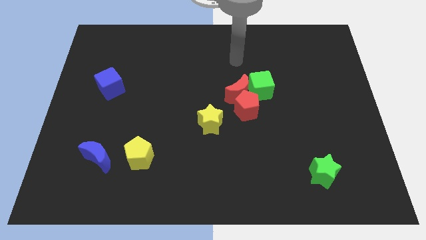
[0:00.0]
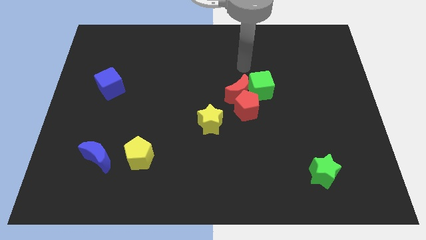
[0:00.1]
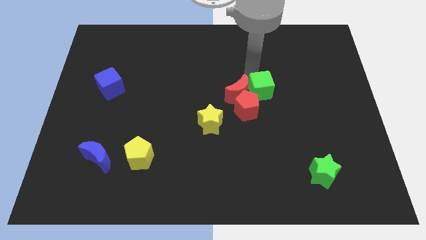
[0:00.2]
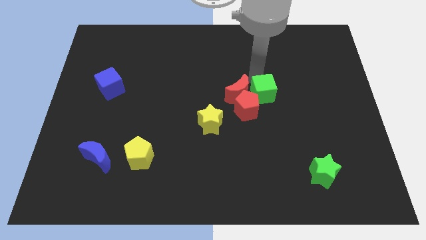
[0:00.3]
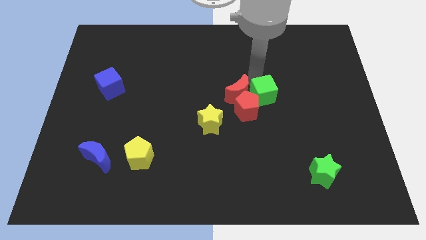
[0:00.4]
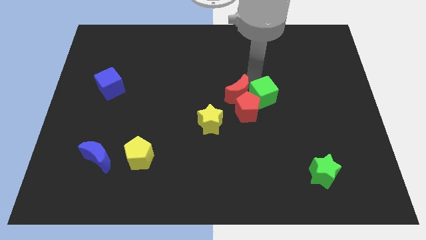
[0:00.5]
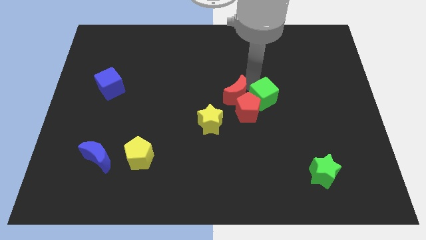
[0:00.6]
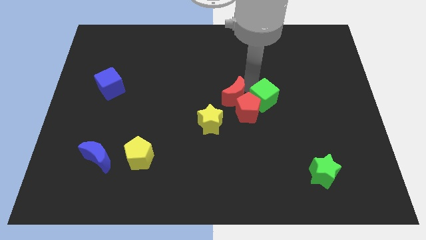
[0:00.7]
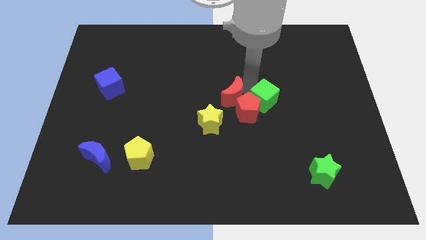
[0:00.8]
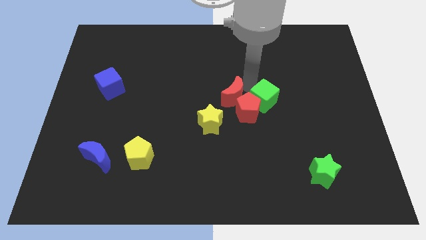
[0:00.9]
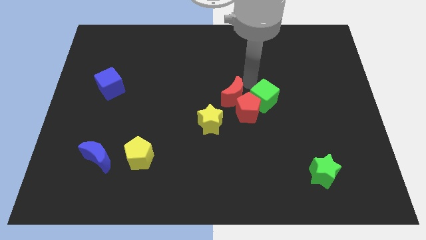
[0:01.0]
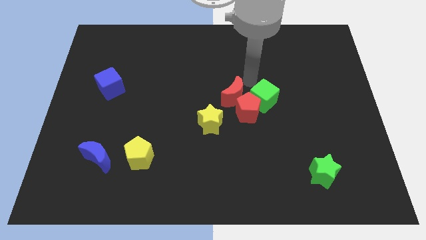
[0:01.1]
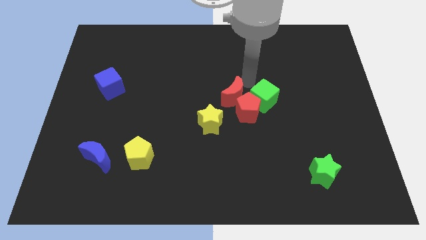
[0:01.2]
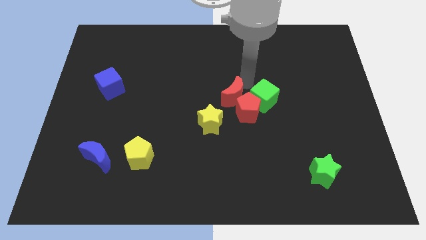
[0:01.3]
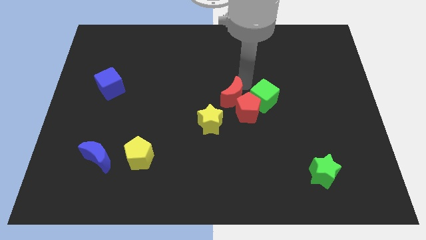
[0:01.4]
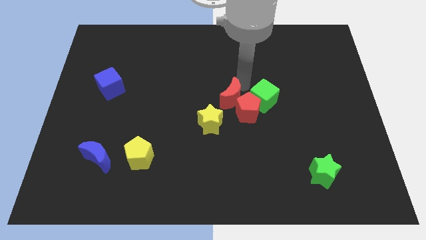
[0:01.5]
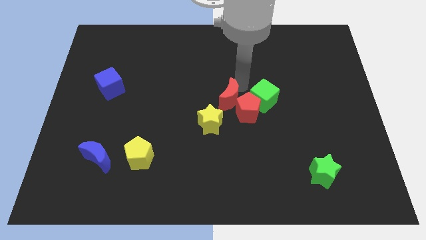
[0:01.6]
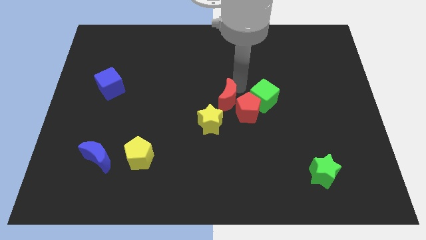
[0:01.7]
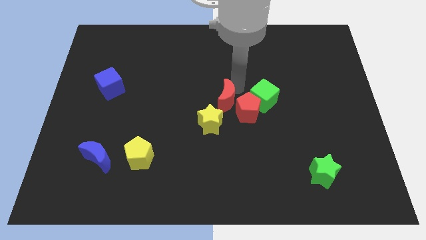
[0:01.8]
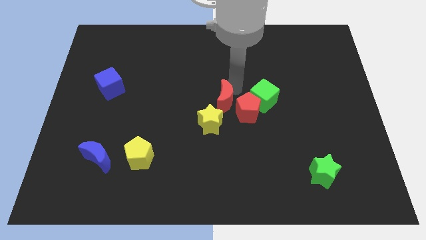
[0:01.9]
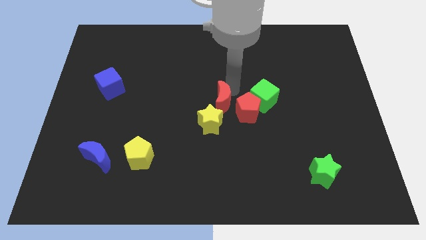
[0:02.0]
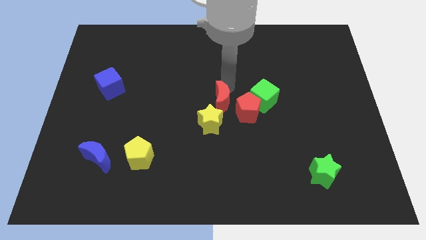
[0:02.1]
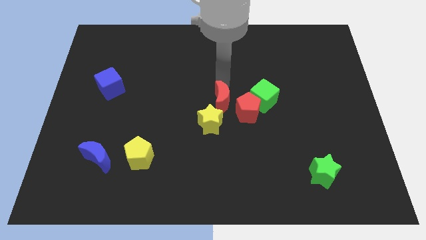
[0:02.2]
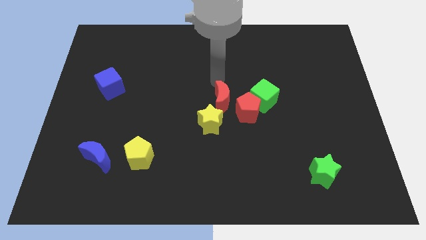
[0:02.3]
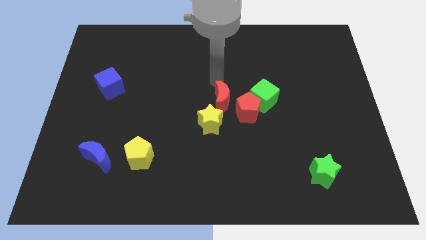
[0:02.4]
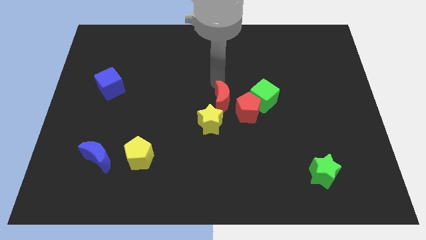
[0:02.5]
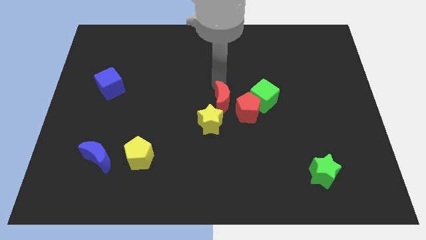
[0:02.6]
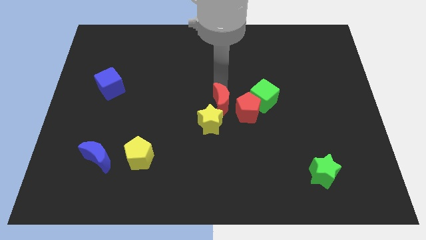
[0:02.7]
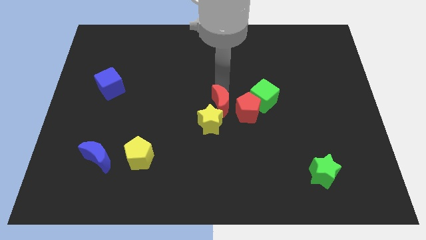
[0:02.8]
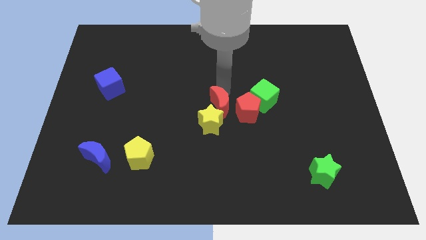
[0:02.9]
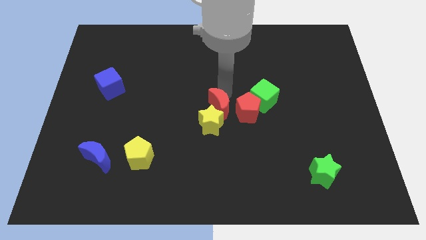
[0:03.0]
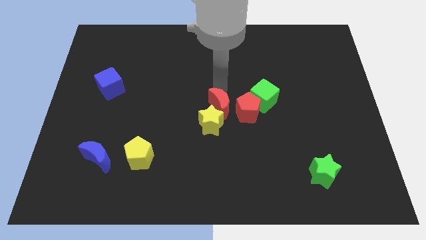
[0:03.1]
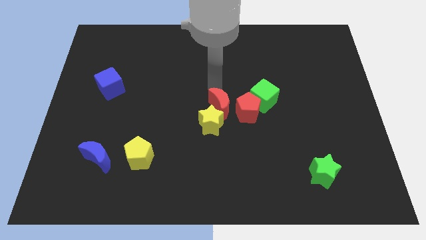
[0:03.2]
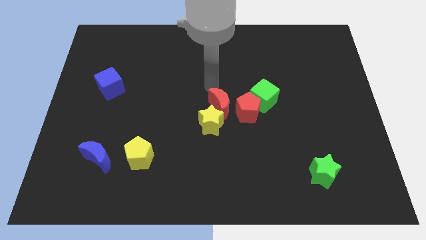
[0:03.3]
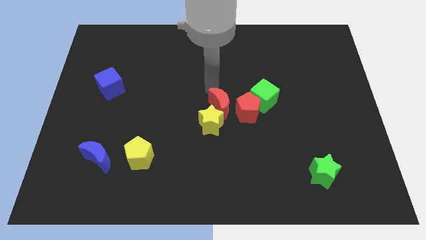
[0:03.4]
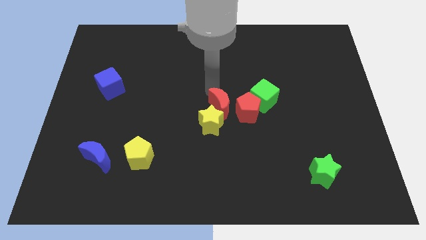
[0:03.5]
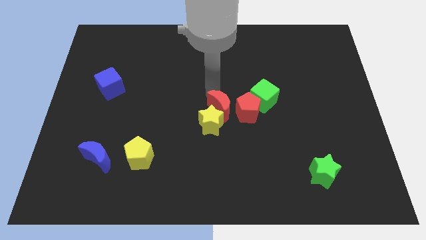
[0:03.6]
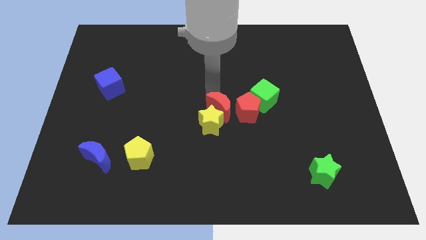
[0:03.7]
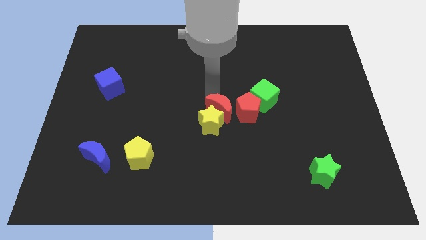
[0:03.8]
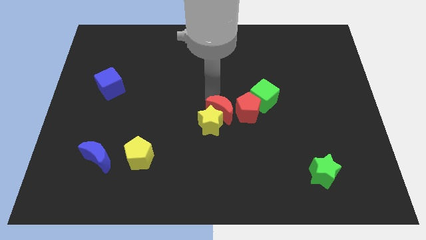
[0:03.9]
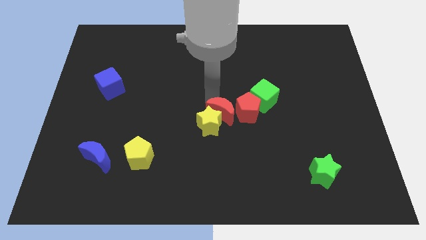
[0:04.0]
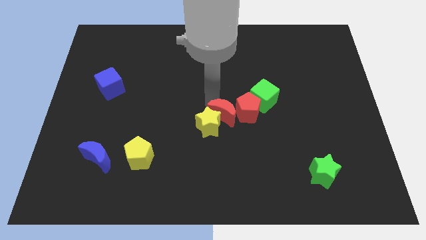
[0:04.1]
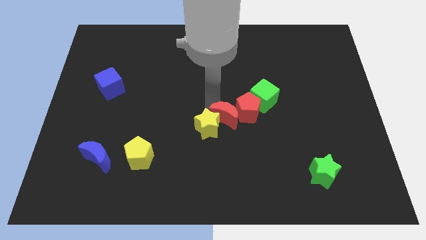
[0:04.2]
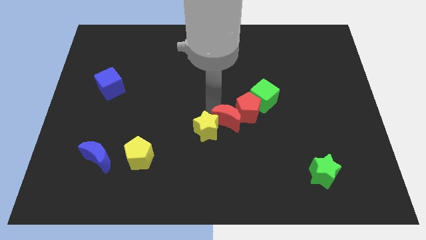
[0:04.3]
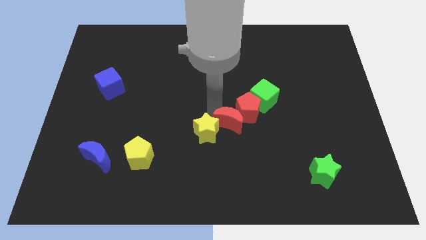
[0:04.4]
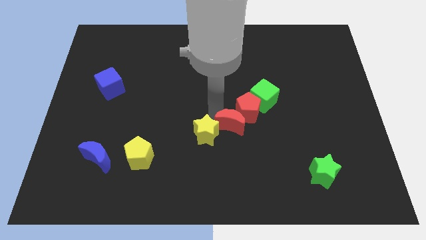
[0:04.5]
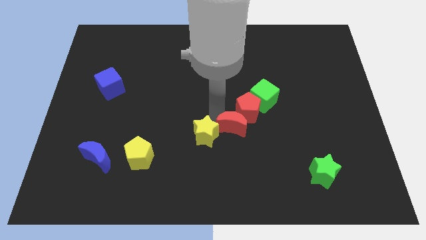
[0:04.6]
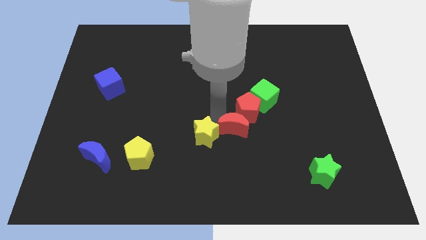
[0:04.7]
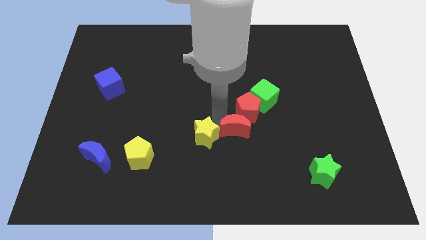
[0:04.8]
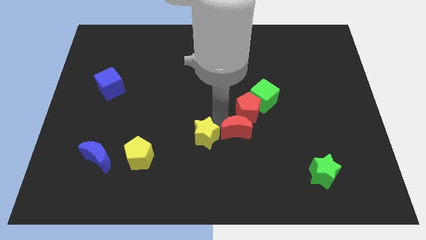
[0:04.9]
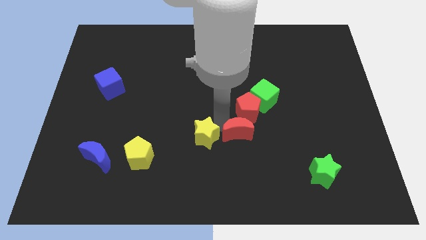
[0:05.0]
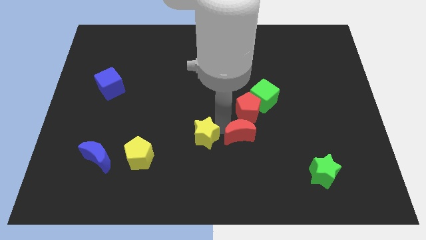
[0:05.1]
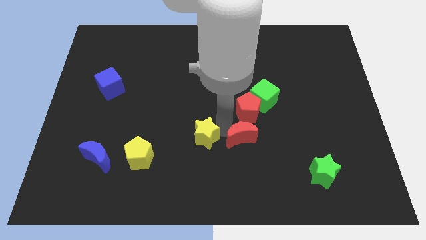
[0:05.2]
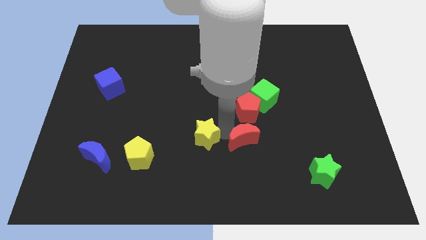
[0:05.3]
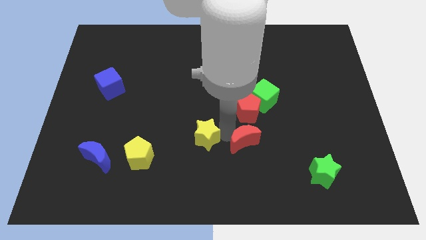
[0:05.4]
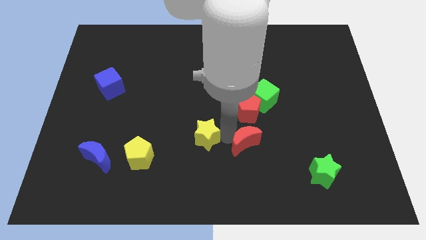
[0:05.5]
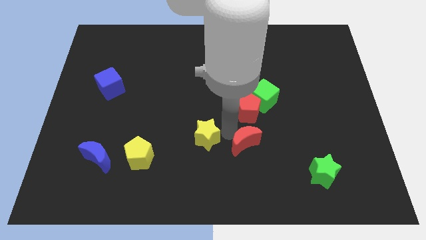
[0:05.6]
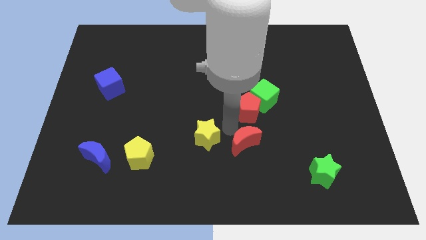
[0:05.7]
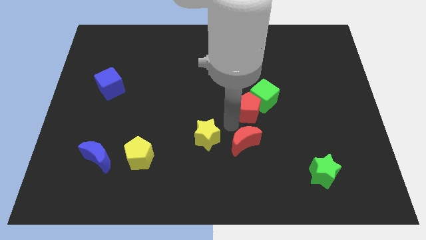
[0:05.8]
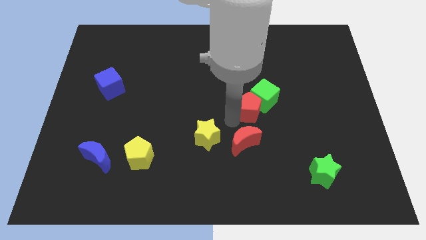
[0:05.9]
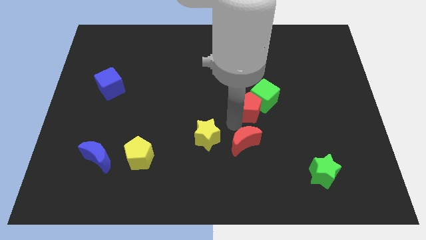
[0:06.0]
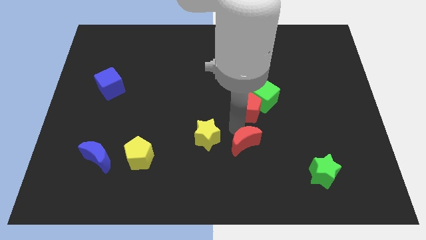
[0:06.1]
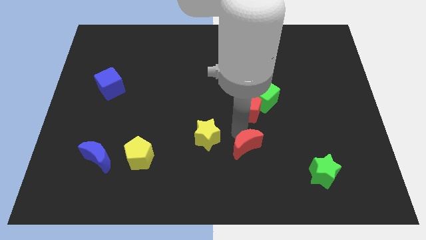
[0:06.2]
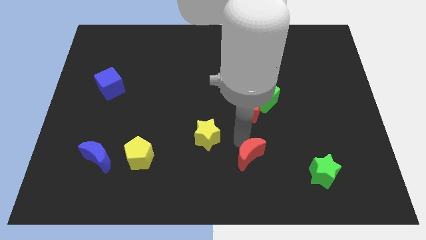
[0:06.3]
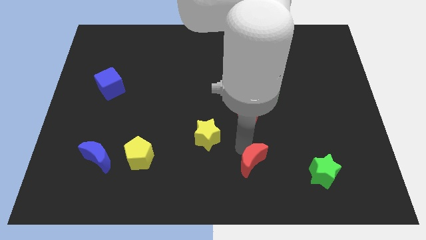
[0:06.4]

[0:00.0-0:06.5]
put the red moon left of the green star
